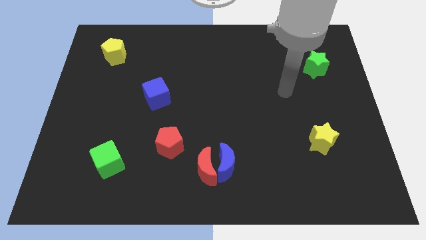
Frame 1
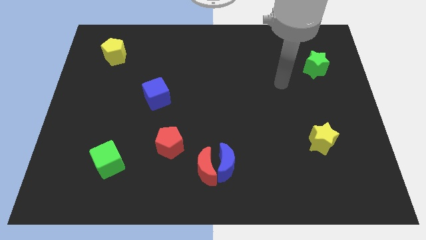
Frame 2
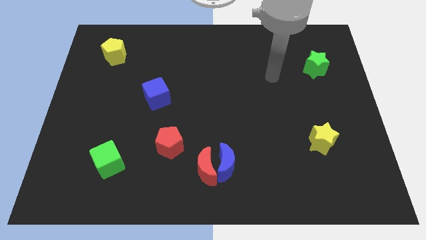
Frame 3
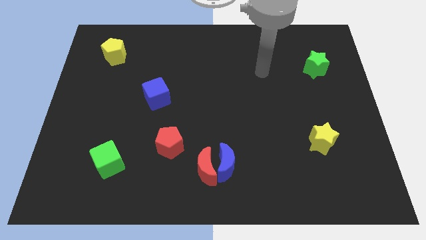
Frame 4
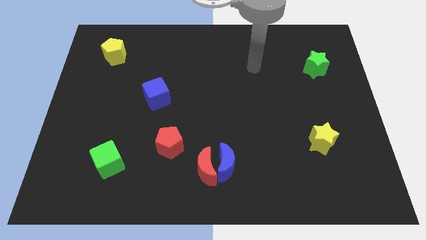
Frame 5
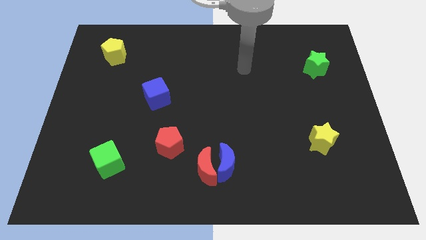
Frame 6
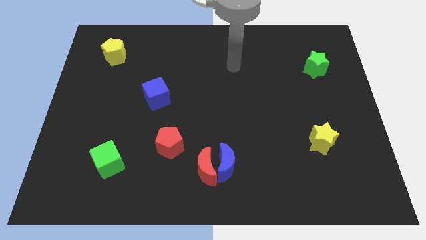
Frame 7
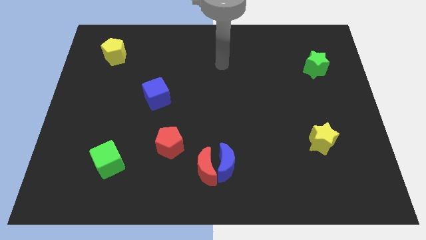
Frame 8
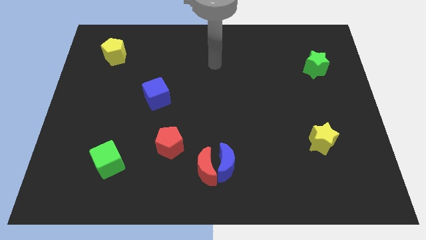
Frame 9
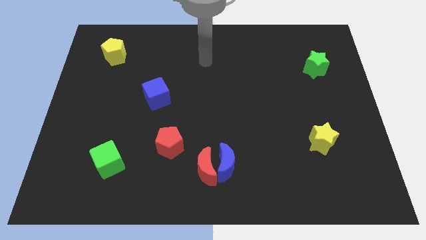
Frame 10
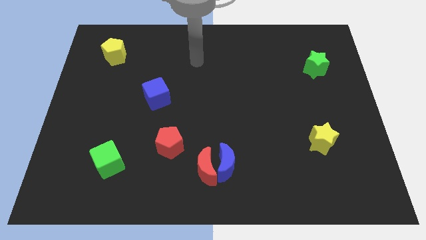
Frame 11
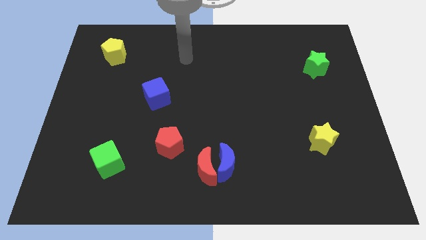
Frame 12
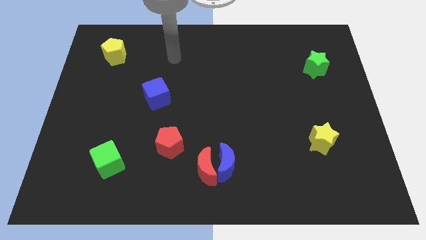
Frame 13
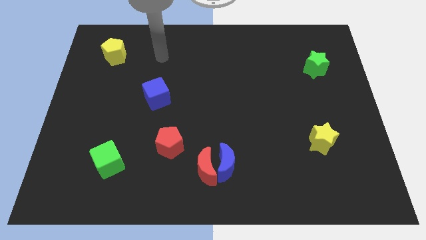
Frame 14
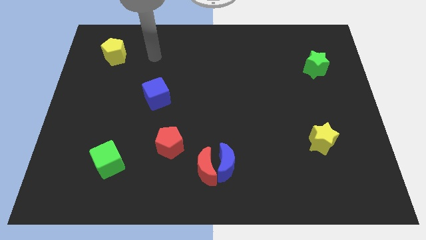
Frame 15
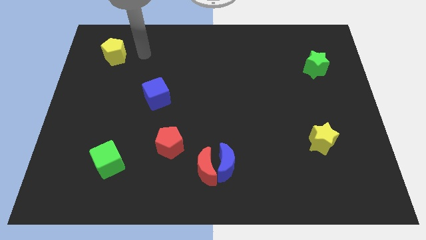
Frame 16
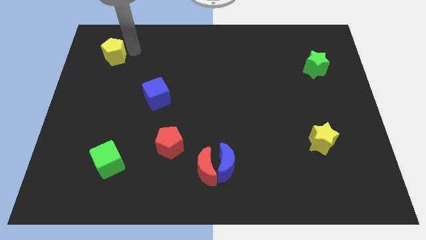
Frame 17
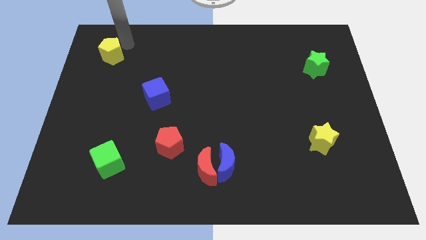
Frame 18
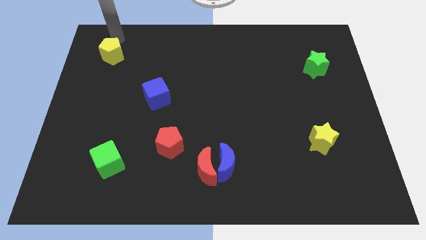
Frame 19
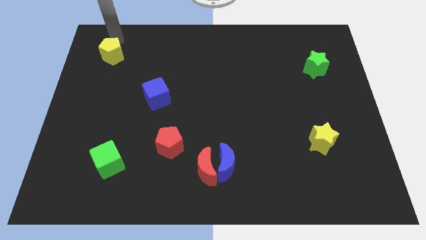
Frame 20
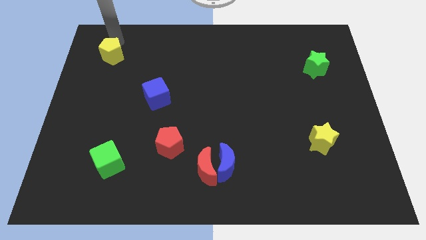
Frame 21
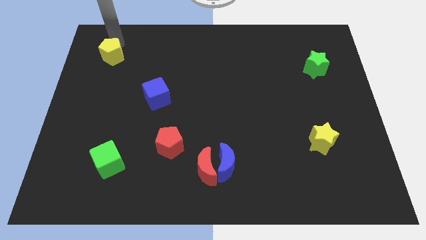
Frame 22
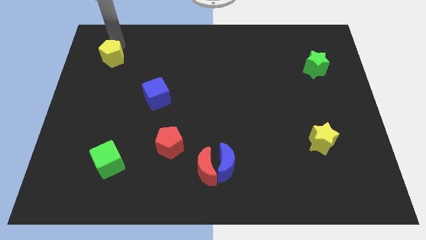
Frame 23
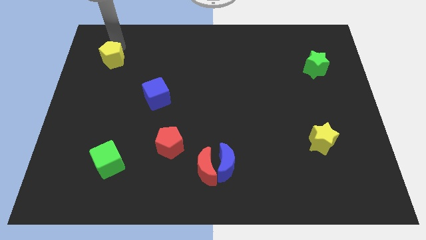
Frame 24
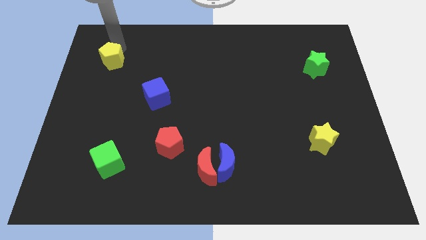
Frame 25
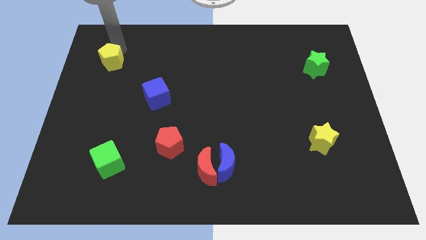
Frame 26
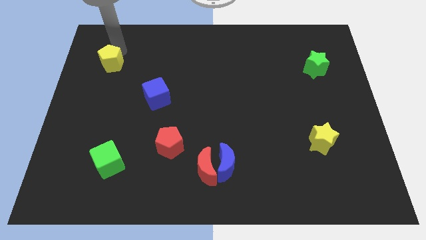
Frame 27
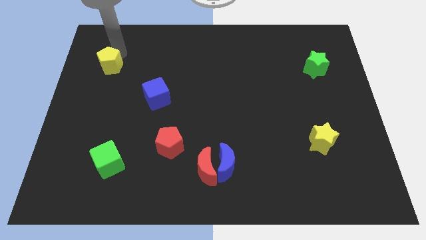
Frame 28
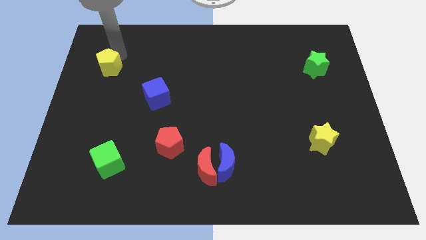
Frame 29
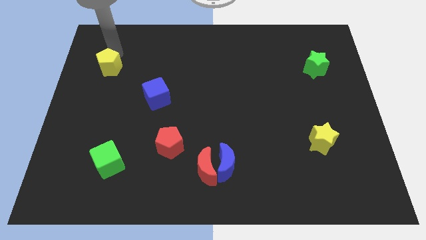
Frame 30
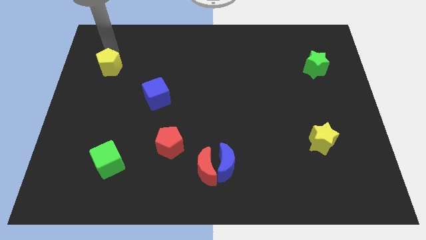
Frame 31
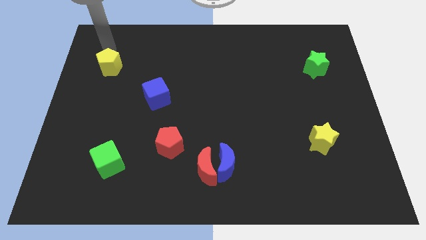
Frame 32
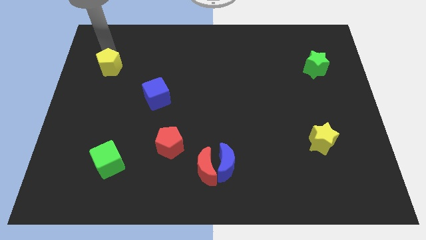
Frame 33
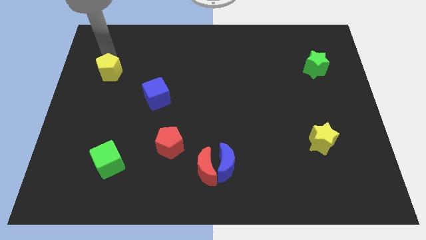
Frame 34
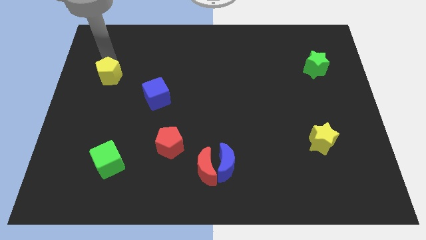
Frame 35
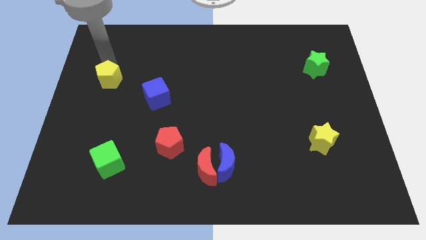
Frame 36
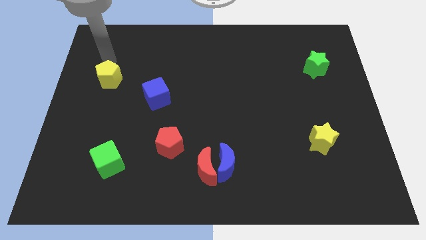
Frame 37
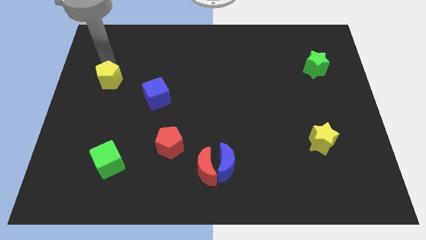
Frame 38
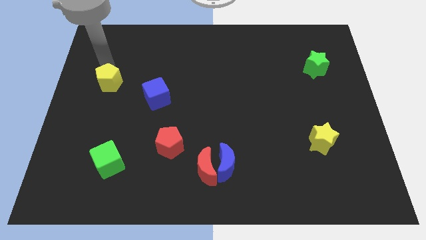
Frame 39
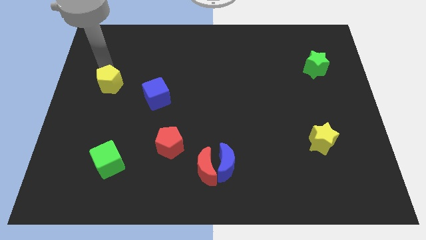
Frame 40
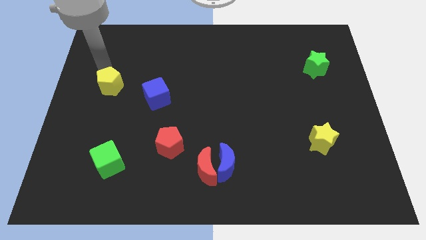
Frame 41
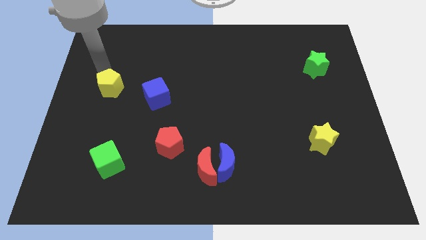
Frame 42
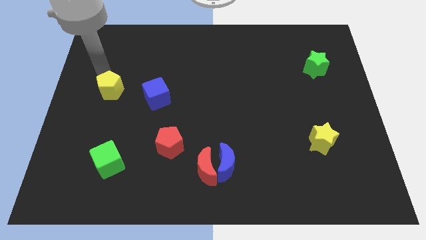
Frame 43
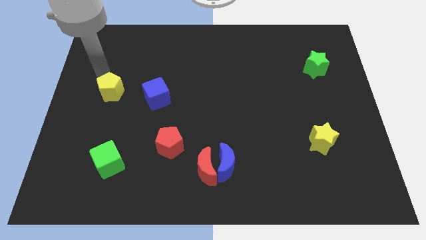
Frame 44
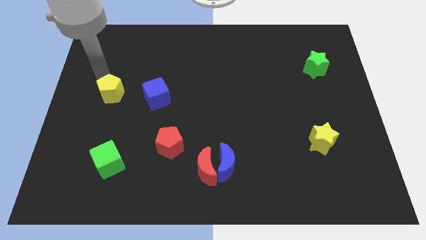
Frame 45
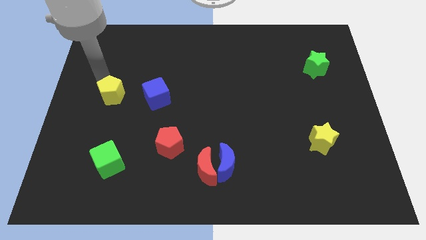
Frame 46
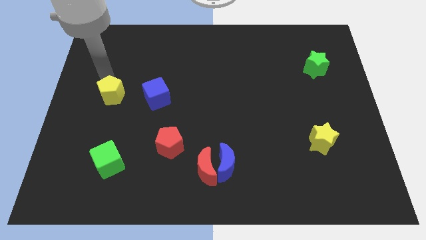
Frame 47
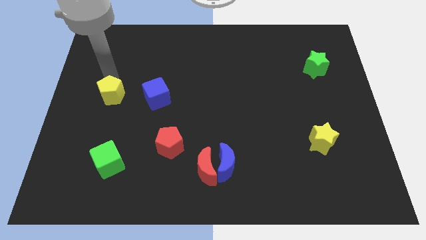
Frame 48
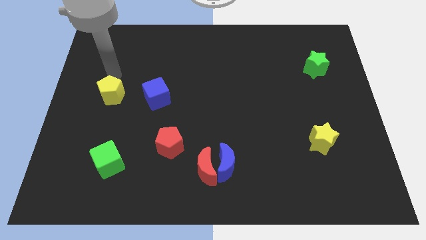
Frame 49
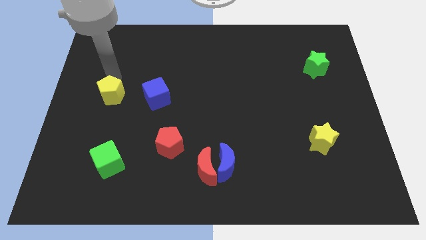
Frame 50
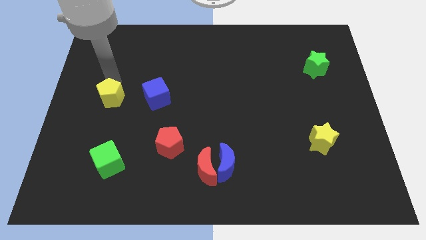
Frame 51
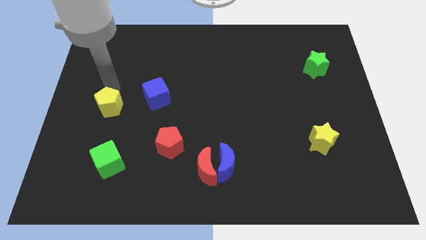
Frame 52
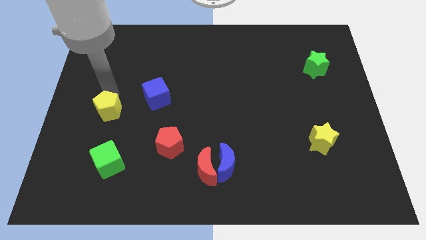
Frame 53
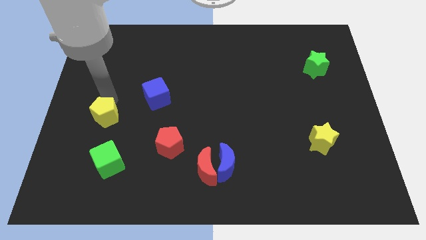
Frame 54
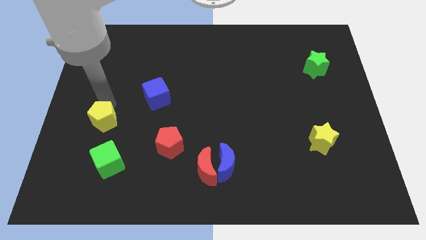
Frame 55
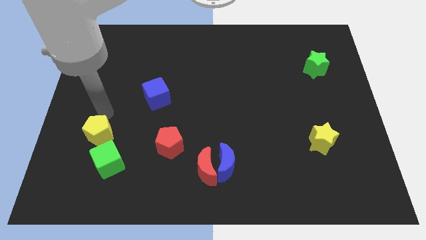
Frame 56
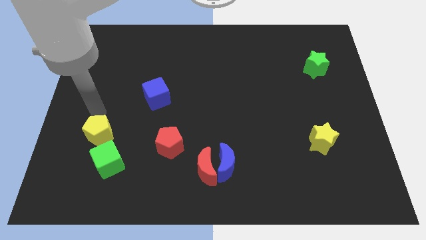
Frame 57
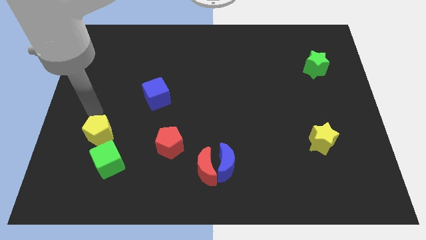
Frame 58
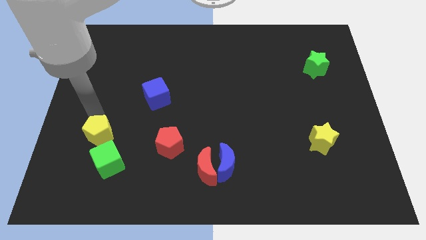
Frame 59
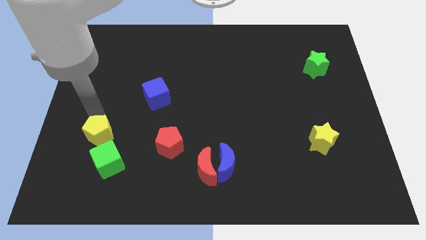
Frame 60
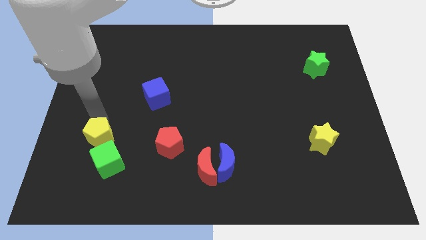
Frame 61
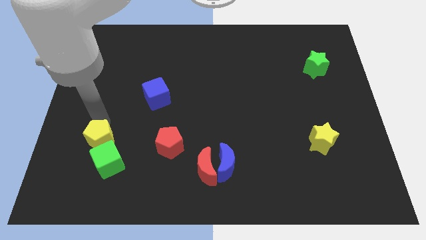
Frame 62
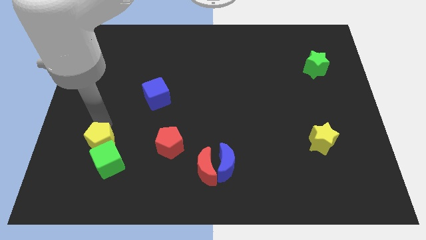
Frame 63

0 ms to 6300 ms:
move the yellow pentagon close to the green cube

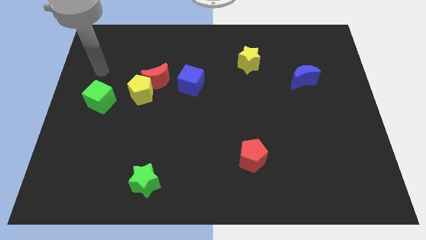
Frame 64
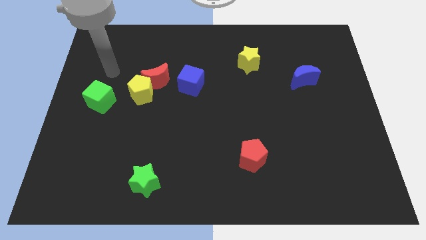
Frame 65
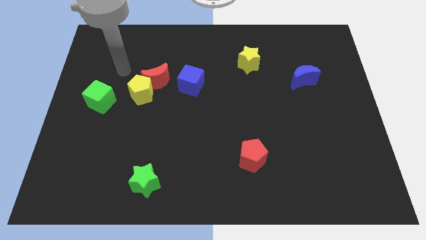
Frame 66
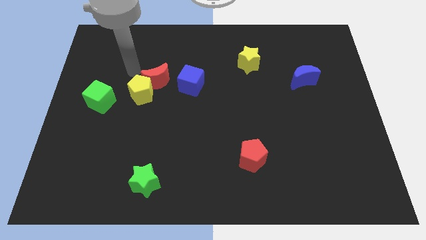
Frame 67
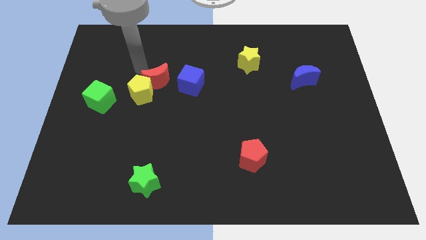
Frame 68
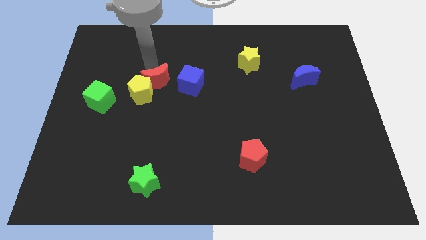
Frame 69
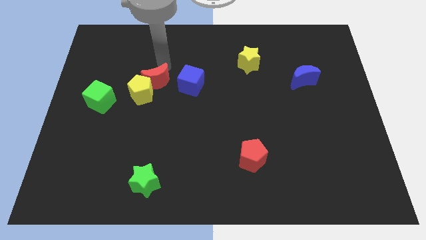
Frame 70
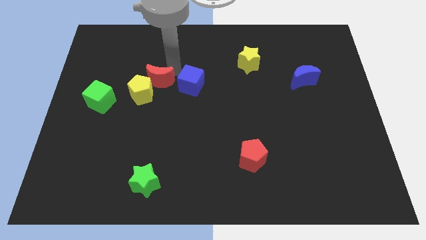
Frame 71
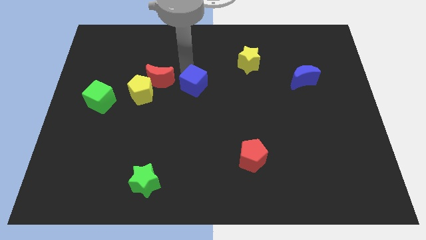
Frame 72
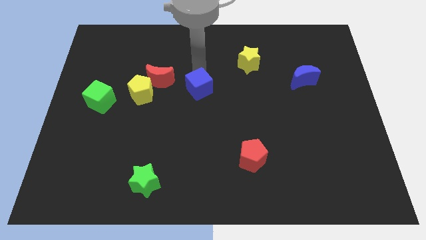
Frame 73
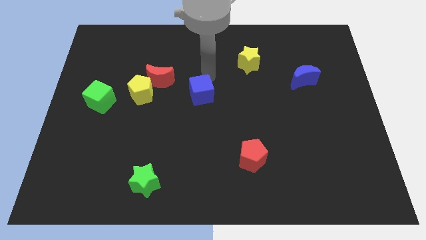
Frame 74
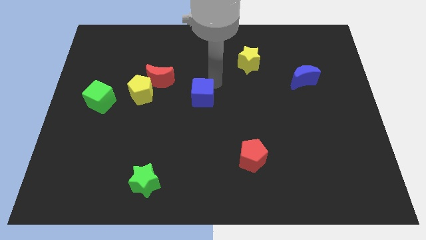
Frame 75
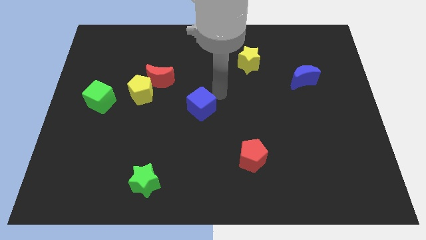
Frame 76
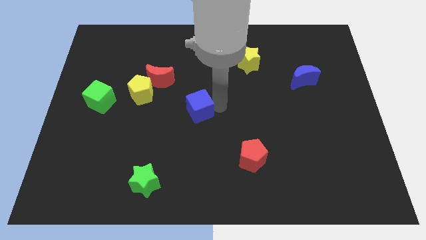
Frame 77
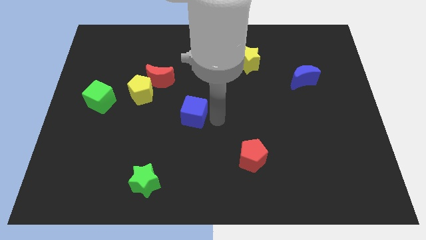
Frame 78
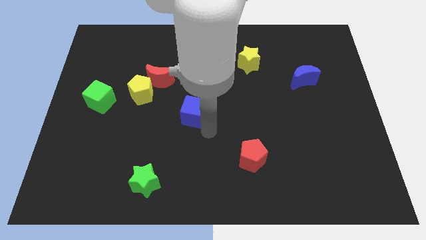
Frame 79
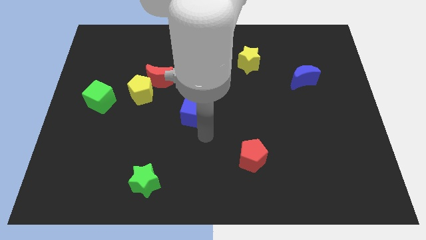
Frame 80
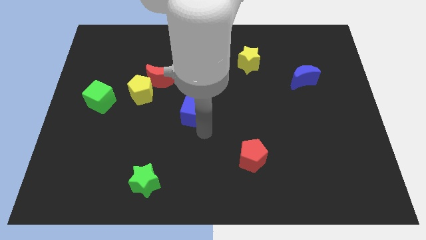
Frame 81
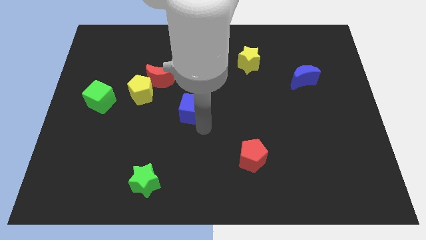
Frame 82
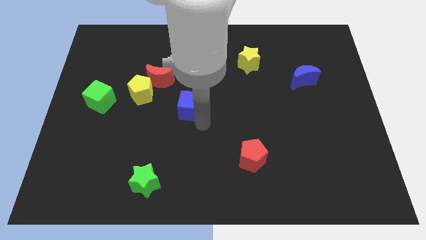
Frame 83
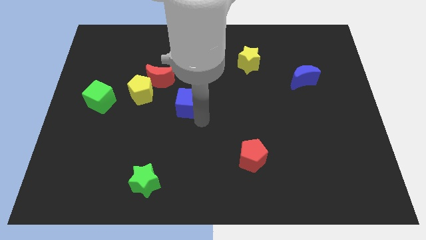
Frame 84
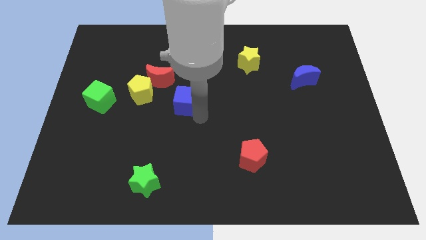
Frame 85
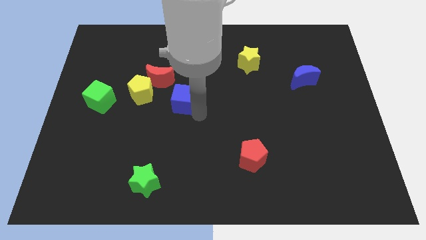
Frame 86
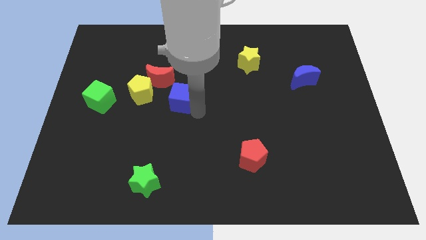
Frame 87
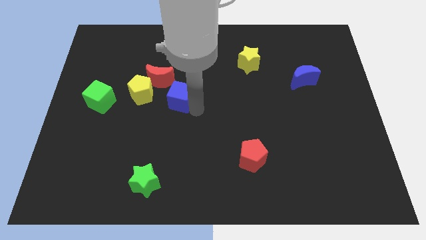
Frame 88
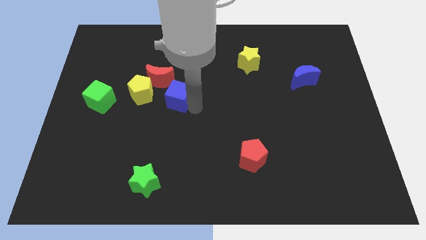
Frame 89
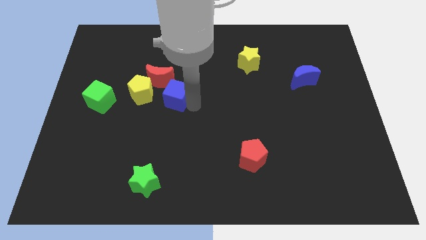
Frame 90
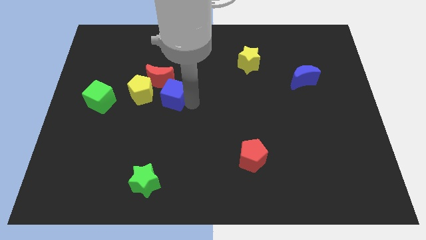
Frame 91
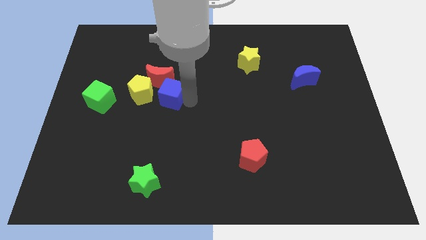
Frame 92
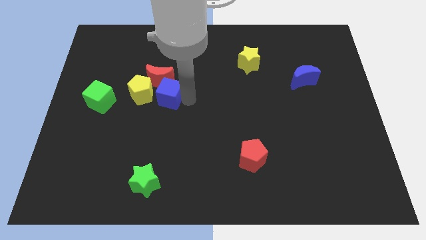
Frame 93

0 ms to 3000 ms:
move the blue cube next to the red moon
